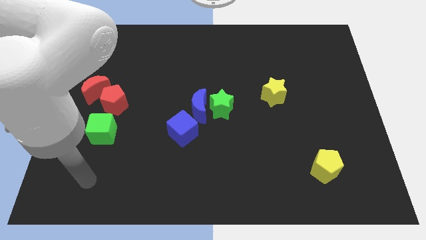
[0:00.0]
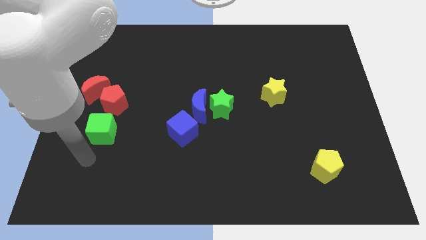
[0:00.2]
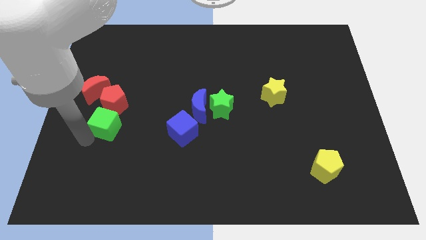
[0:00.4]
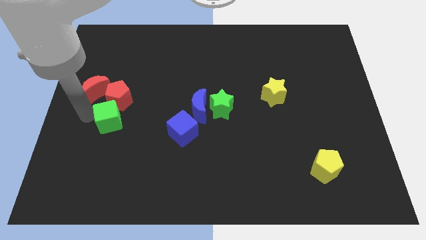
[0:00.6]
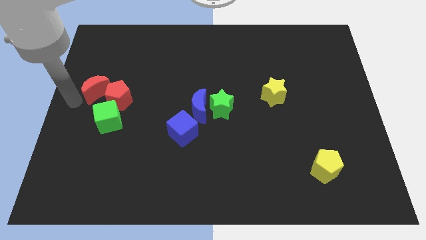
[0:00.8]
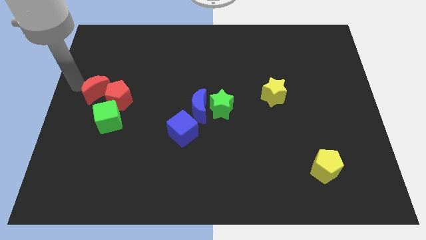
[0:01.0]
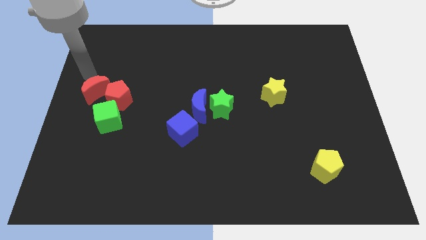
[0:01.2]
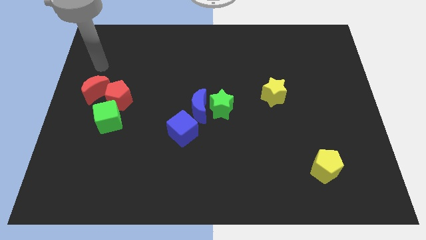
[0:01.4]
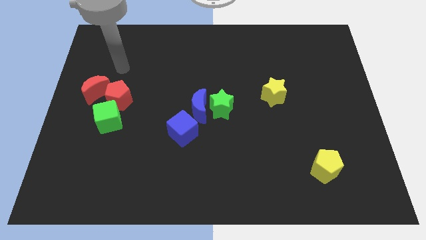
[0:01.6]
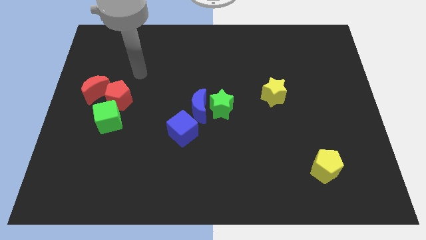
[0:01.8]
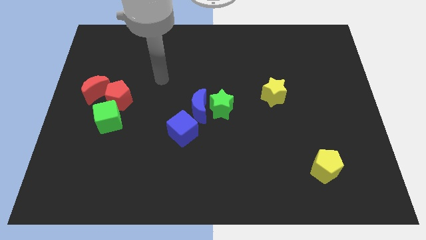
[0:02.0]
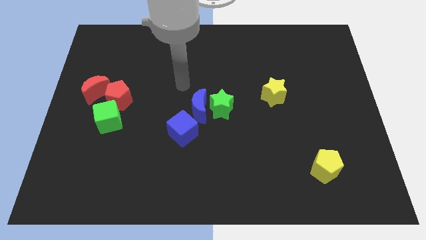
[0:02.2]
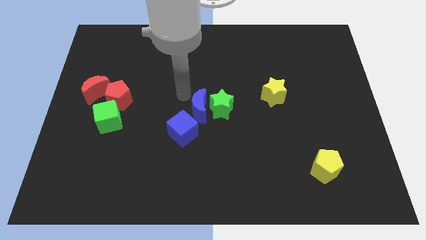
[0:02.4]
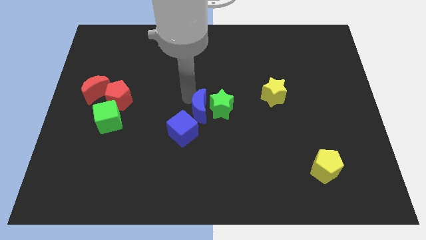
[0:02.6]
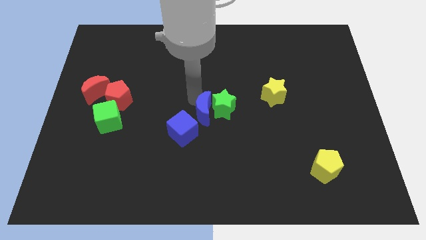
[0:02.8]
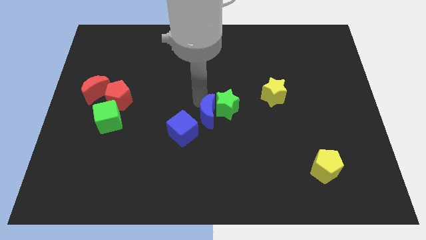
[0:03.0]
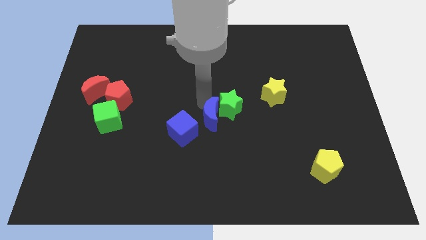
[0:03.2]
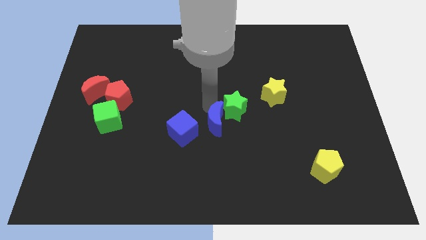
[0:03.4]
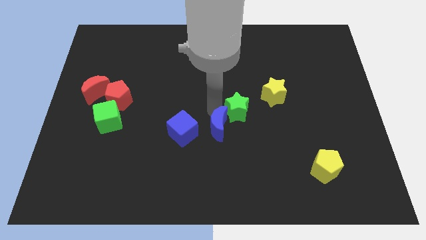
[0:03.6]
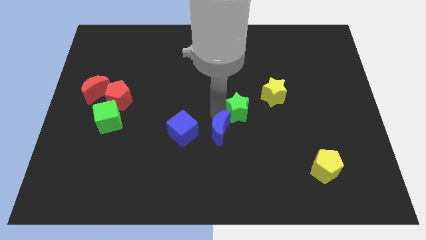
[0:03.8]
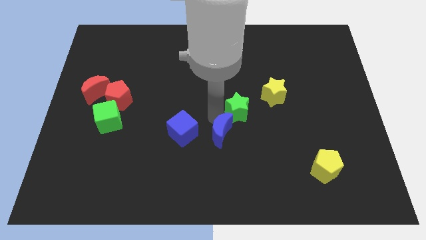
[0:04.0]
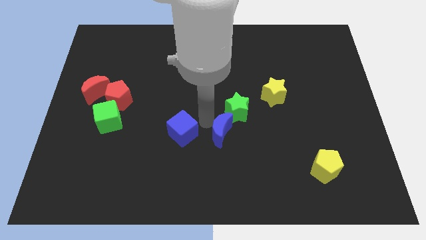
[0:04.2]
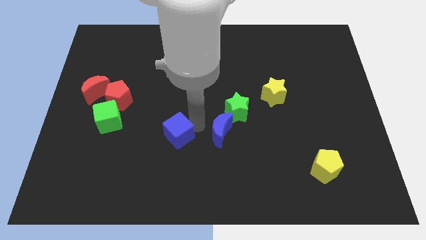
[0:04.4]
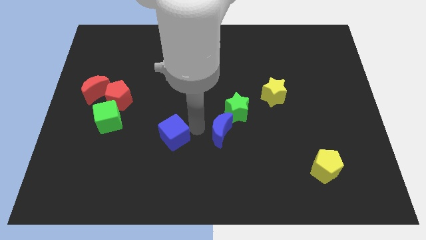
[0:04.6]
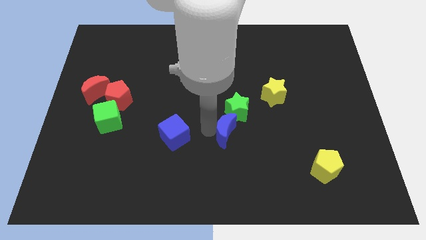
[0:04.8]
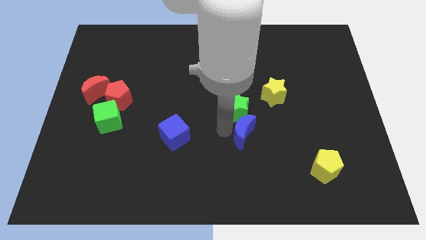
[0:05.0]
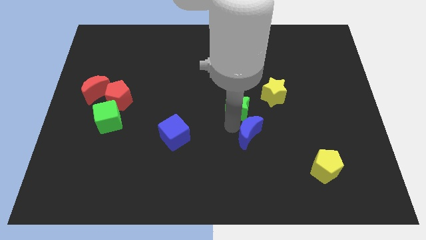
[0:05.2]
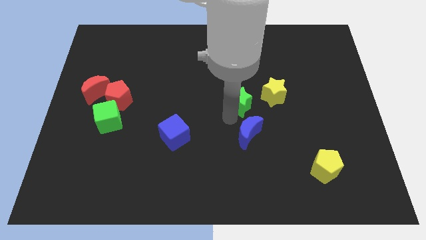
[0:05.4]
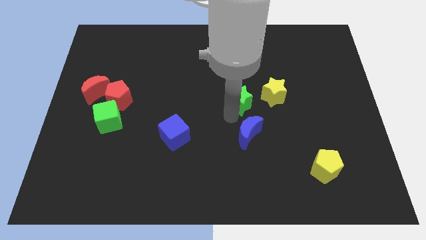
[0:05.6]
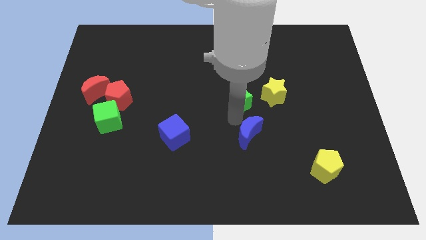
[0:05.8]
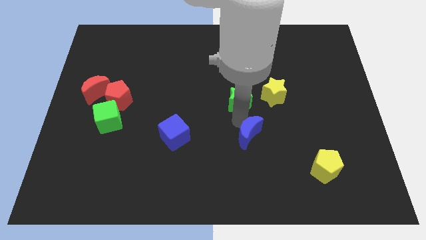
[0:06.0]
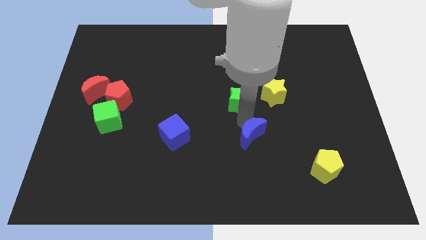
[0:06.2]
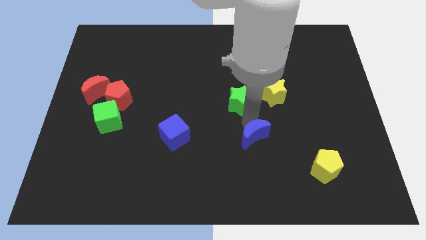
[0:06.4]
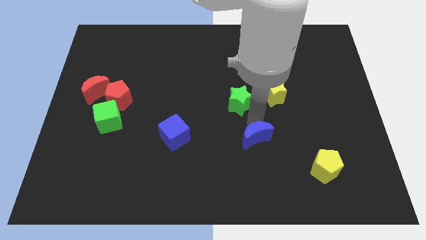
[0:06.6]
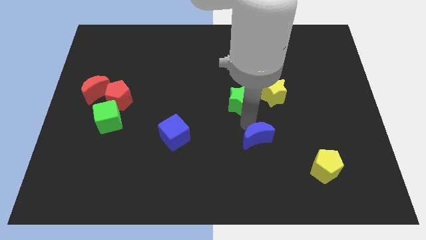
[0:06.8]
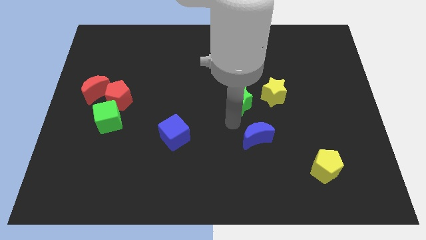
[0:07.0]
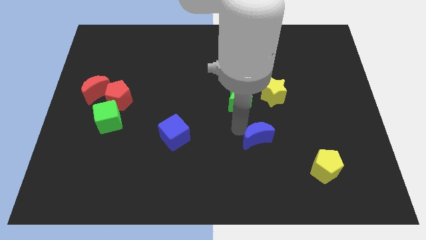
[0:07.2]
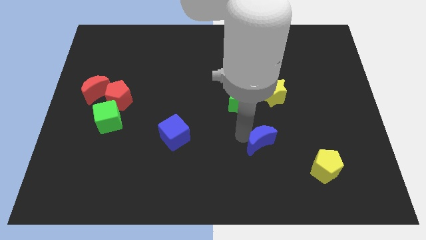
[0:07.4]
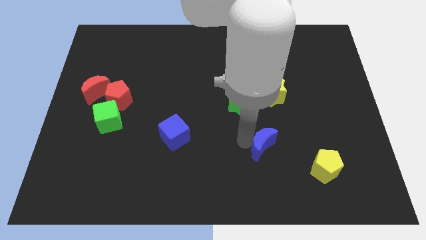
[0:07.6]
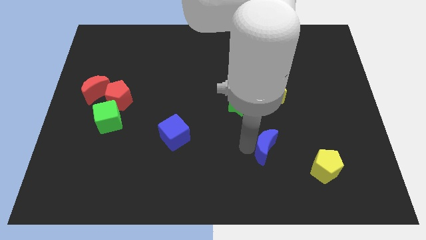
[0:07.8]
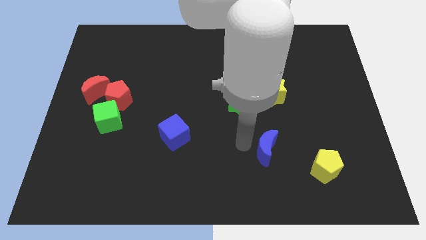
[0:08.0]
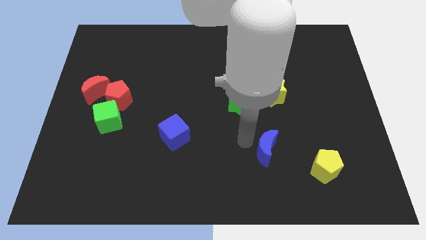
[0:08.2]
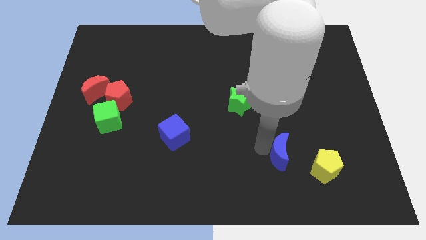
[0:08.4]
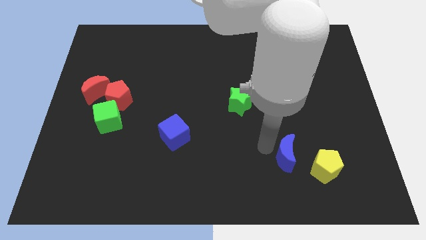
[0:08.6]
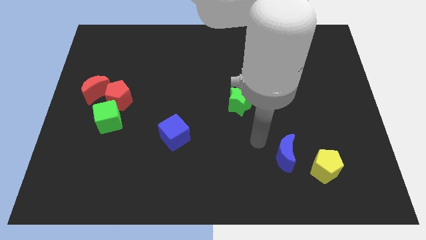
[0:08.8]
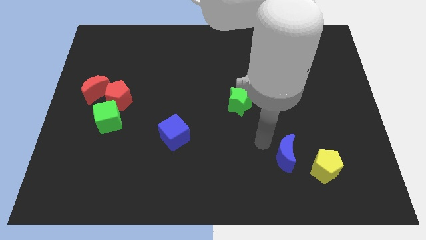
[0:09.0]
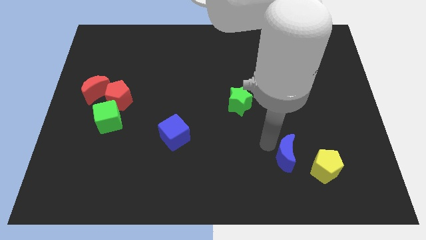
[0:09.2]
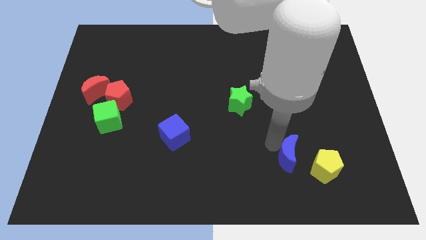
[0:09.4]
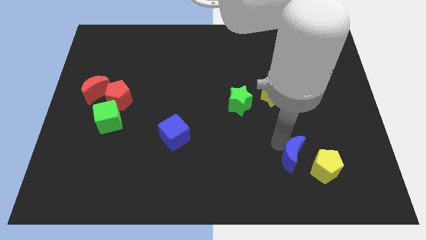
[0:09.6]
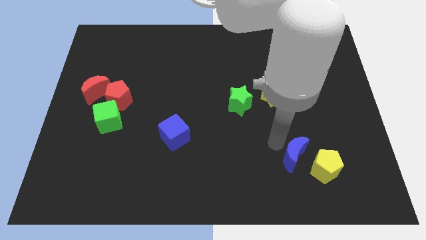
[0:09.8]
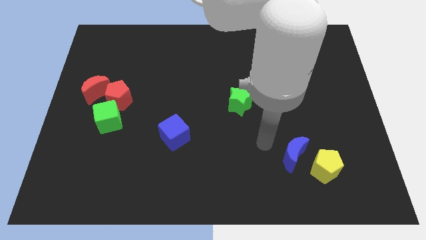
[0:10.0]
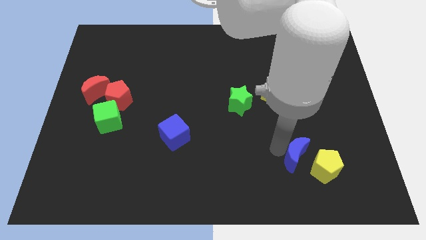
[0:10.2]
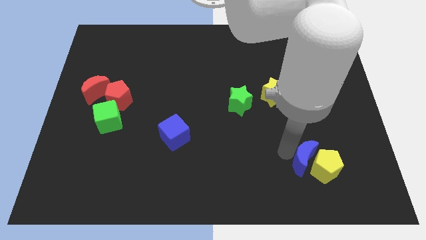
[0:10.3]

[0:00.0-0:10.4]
push the blue moon next to the yellow pentagon

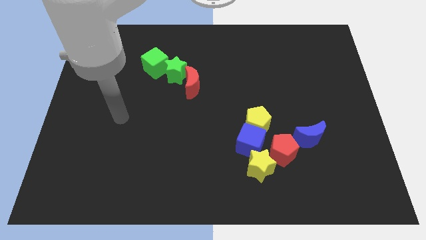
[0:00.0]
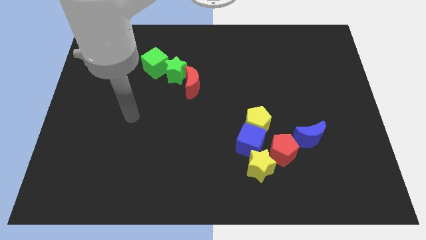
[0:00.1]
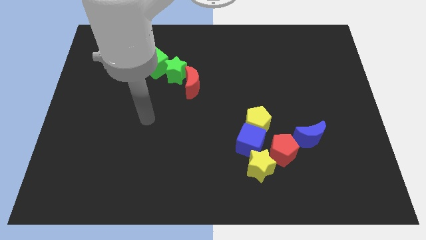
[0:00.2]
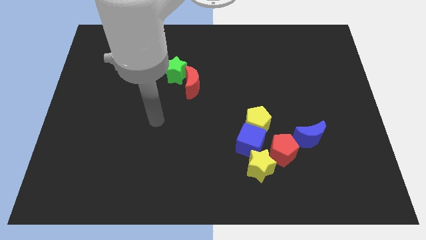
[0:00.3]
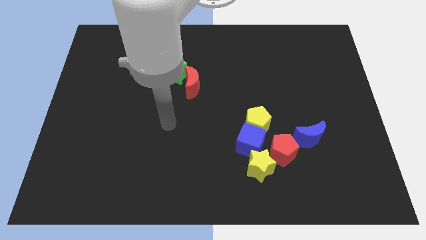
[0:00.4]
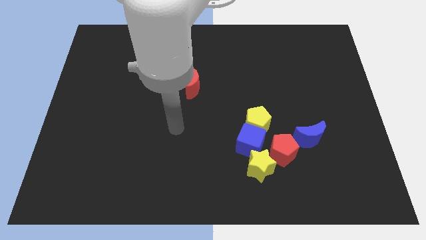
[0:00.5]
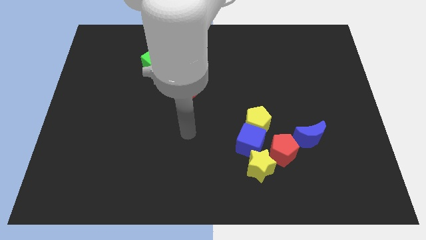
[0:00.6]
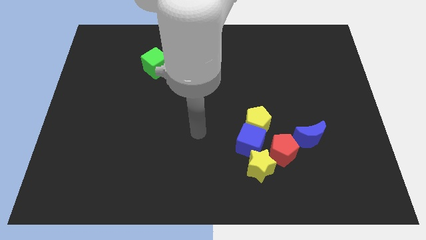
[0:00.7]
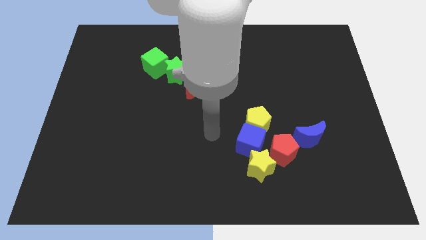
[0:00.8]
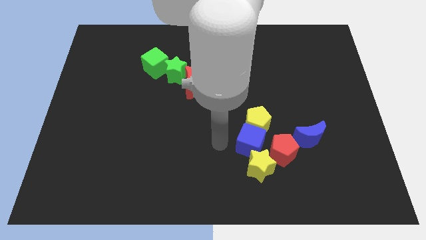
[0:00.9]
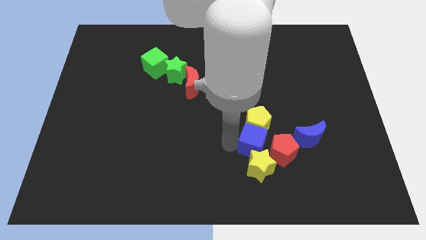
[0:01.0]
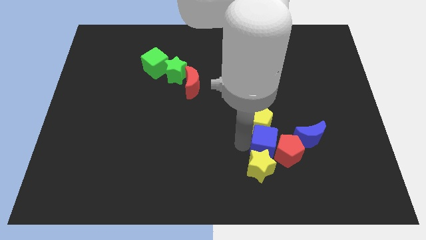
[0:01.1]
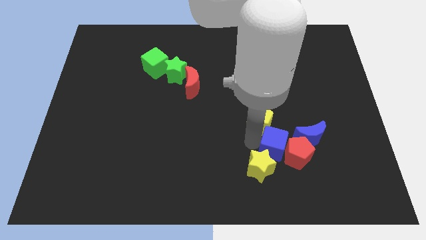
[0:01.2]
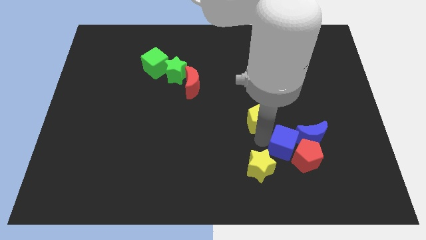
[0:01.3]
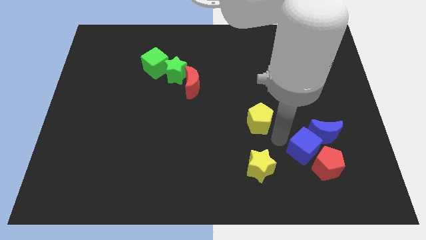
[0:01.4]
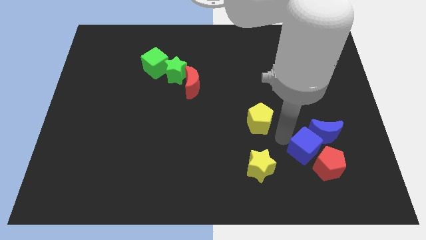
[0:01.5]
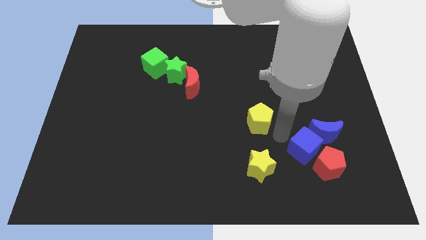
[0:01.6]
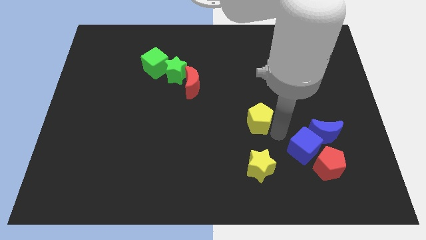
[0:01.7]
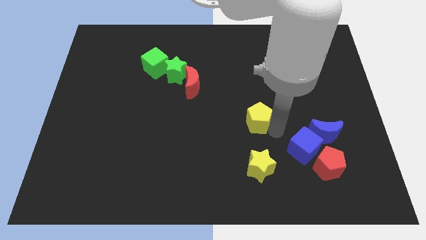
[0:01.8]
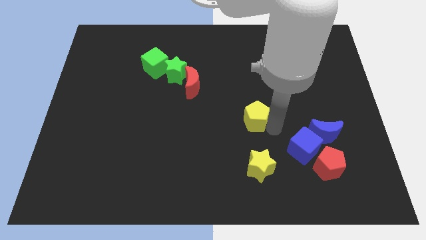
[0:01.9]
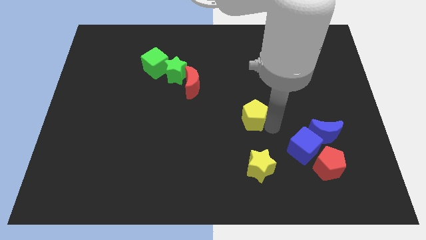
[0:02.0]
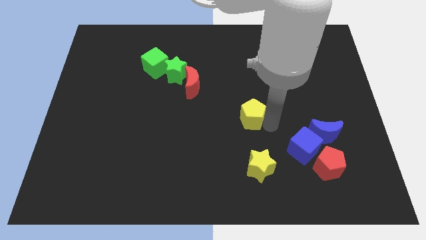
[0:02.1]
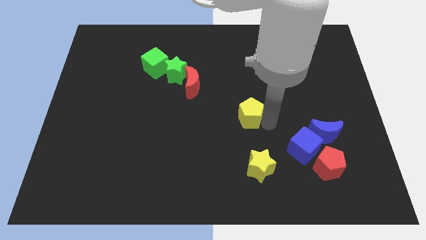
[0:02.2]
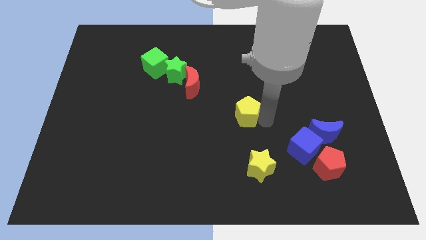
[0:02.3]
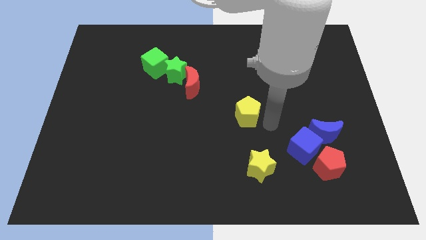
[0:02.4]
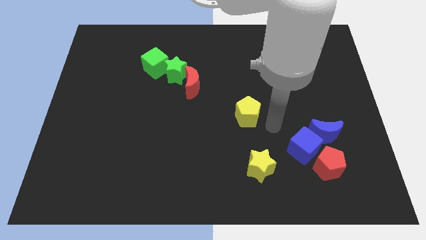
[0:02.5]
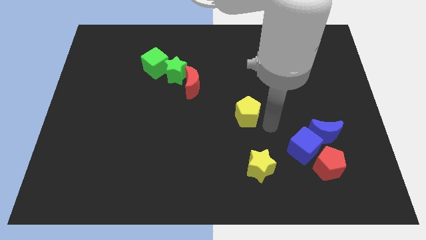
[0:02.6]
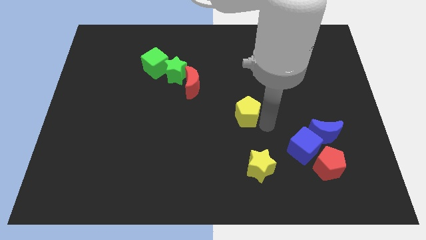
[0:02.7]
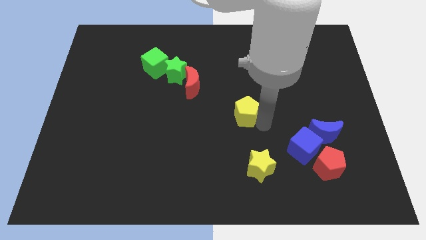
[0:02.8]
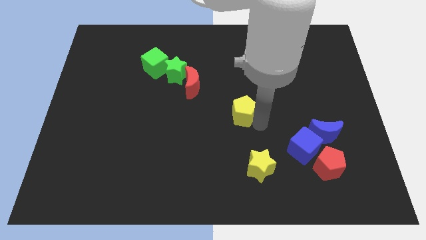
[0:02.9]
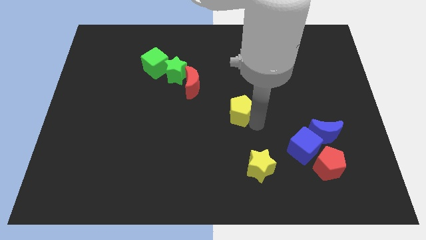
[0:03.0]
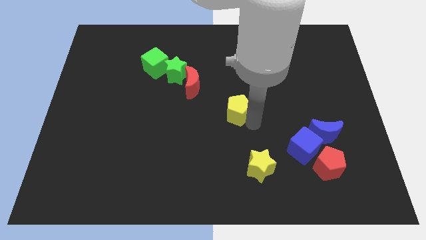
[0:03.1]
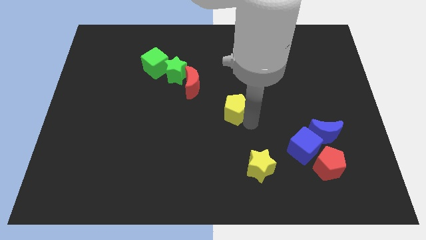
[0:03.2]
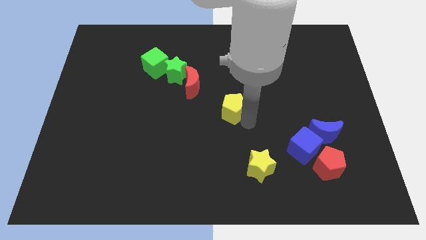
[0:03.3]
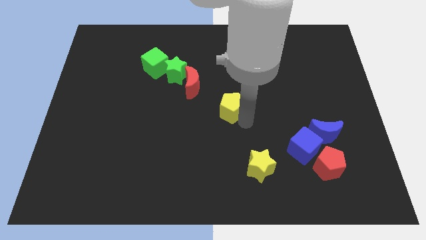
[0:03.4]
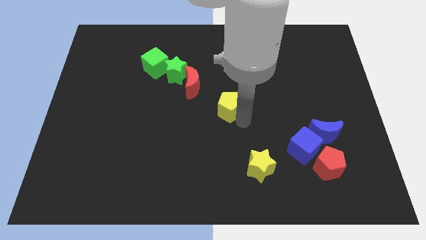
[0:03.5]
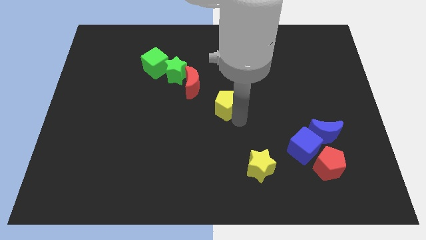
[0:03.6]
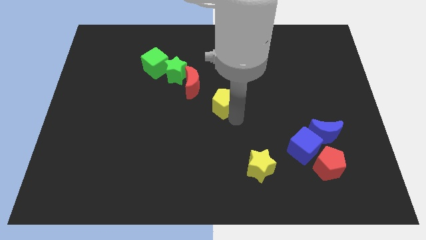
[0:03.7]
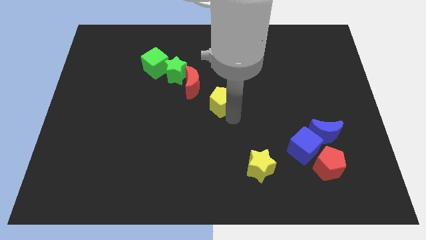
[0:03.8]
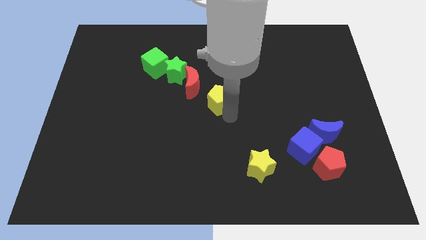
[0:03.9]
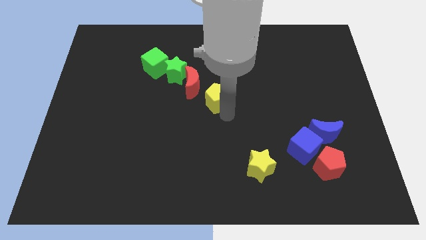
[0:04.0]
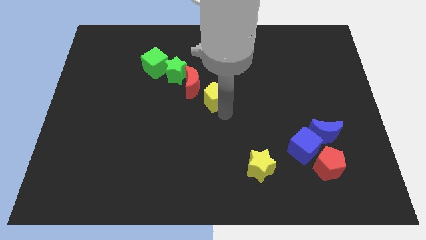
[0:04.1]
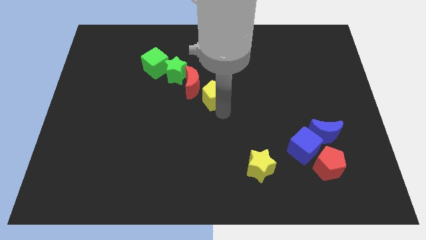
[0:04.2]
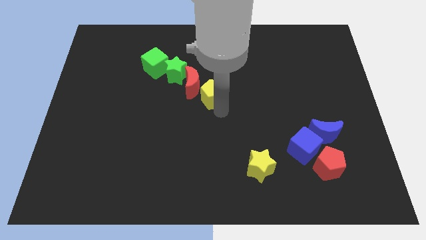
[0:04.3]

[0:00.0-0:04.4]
slide the yellow pentagon close to the red moon
